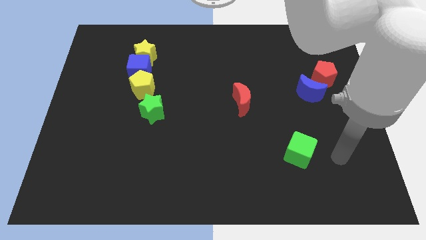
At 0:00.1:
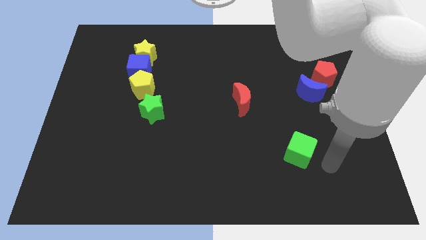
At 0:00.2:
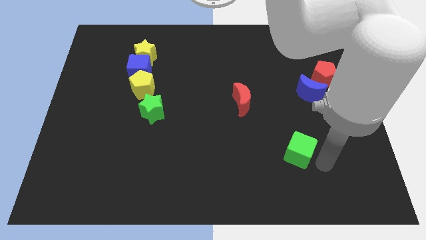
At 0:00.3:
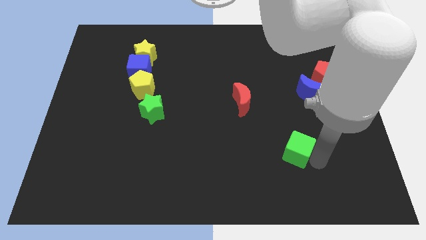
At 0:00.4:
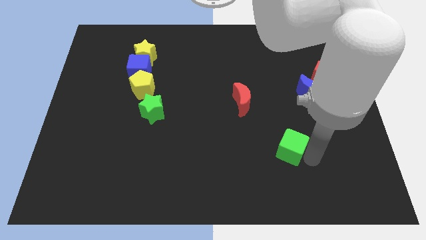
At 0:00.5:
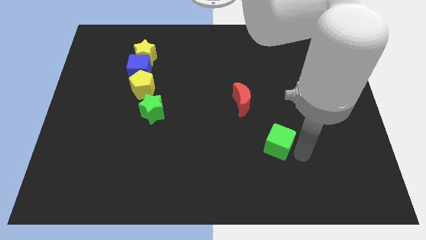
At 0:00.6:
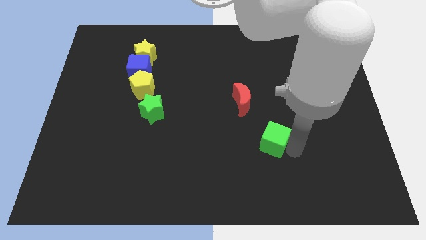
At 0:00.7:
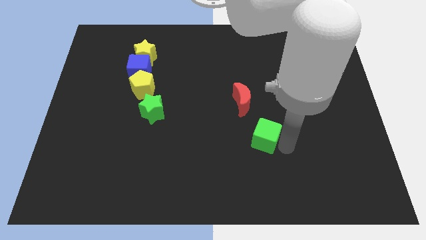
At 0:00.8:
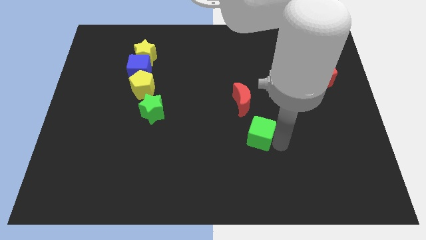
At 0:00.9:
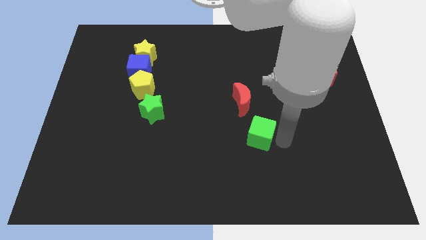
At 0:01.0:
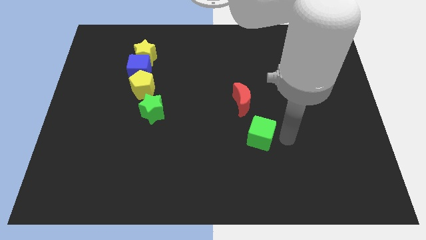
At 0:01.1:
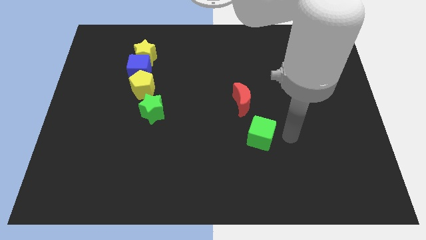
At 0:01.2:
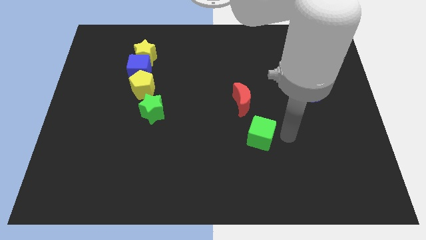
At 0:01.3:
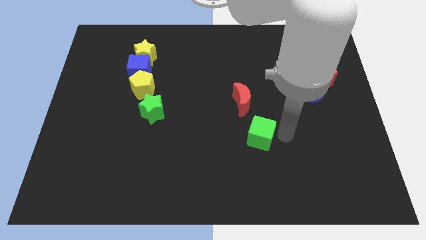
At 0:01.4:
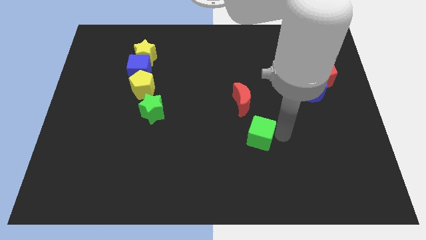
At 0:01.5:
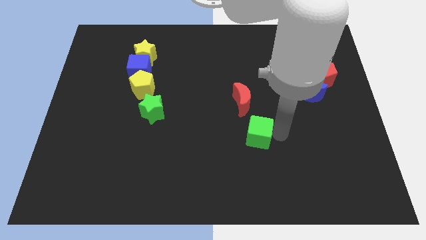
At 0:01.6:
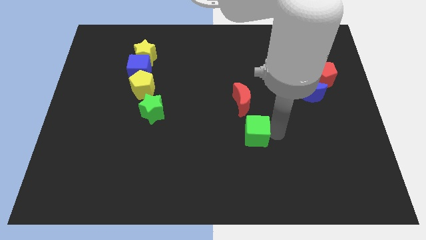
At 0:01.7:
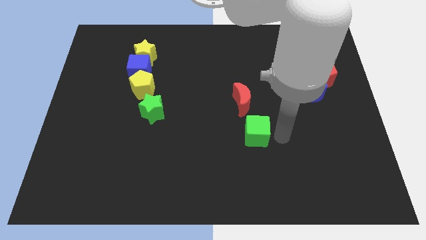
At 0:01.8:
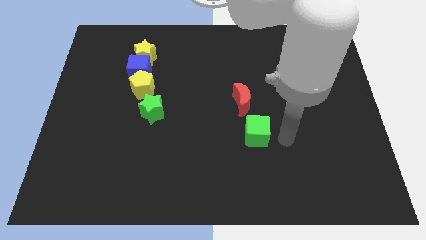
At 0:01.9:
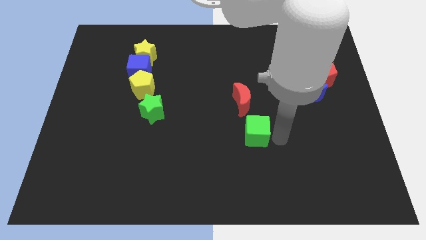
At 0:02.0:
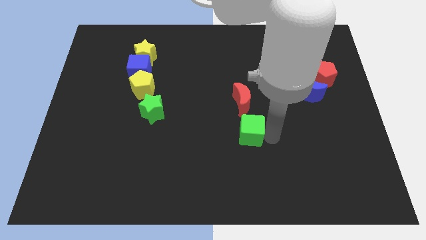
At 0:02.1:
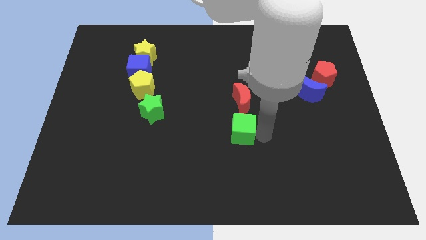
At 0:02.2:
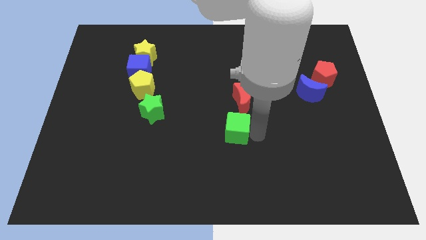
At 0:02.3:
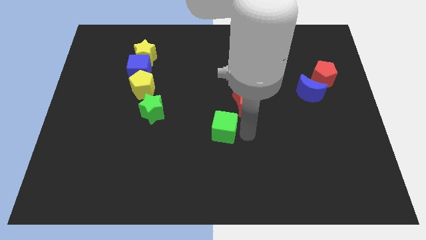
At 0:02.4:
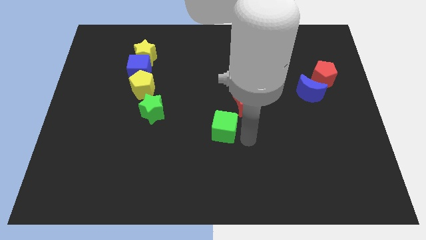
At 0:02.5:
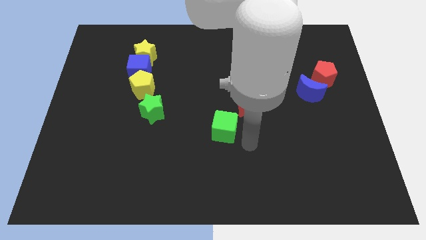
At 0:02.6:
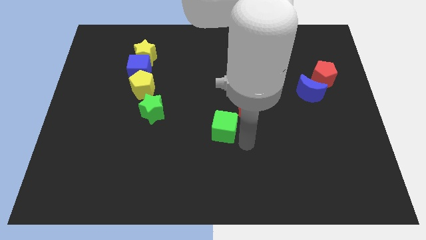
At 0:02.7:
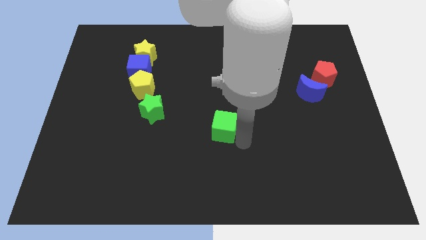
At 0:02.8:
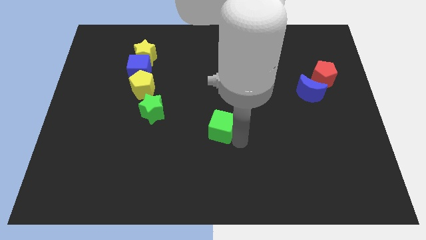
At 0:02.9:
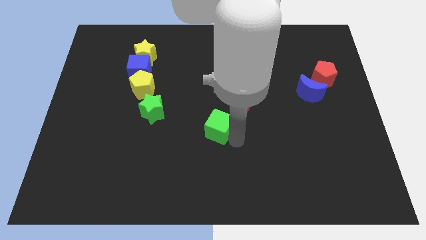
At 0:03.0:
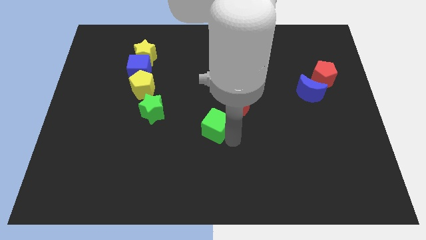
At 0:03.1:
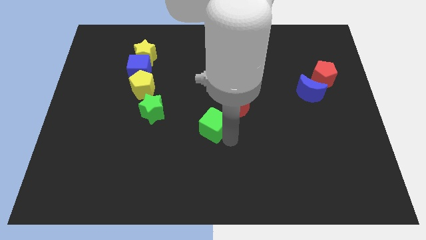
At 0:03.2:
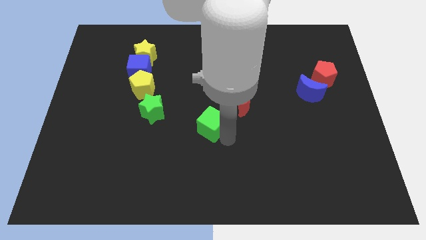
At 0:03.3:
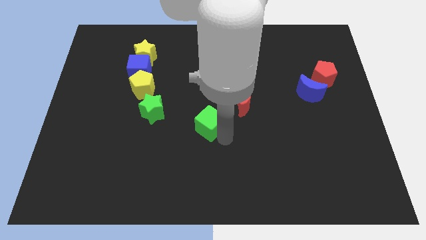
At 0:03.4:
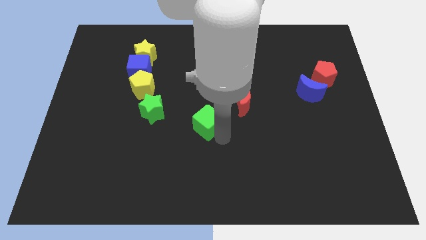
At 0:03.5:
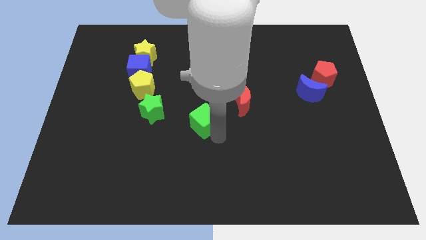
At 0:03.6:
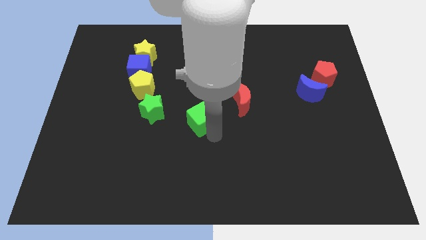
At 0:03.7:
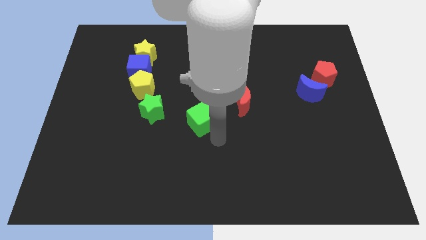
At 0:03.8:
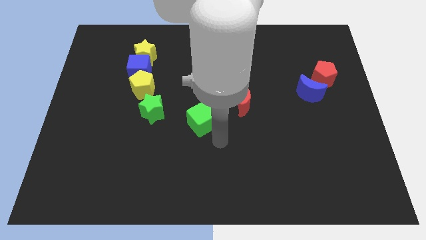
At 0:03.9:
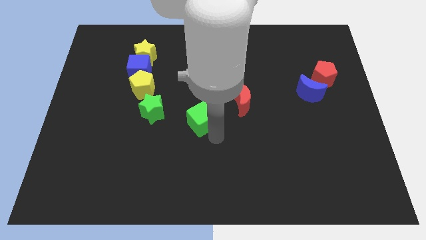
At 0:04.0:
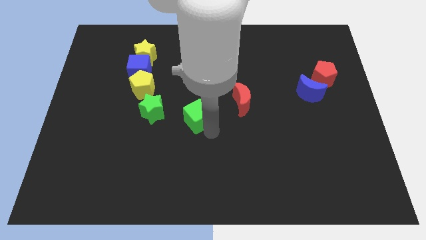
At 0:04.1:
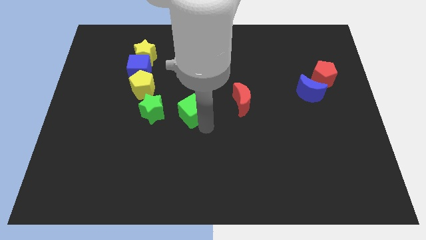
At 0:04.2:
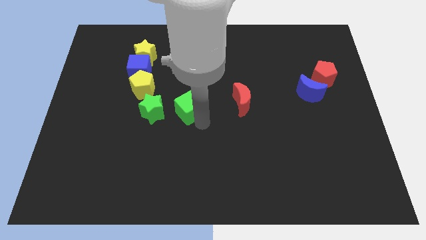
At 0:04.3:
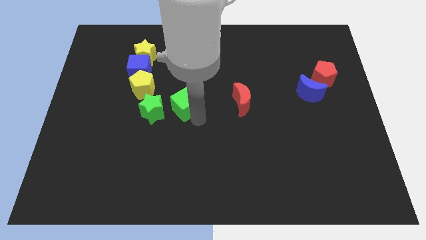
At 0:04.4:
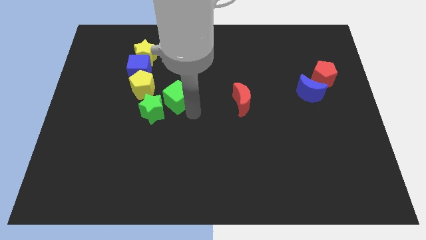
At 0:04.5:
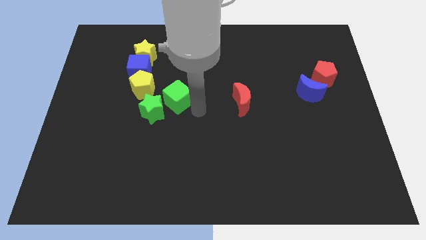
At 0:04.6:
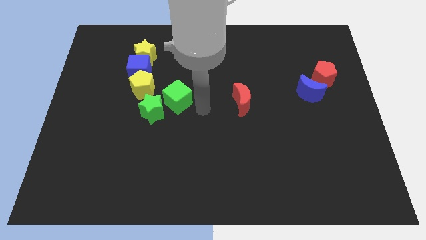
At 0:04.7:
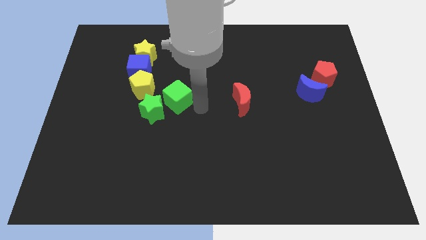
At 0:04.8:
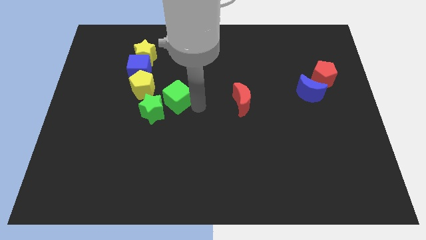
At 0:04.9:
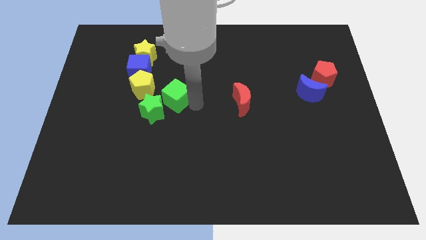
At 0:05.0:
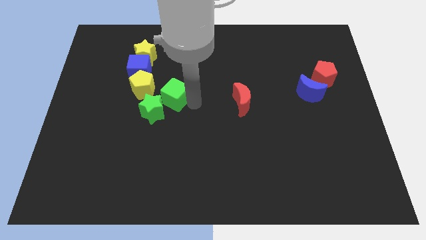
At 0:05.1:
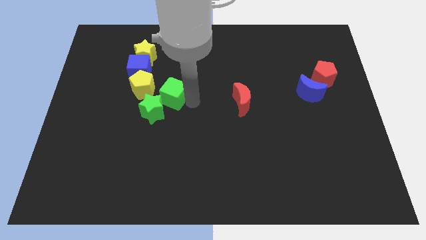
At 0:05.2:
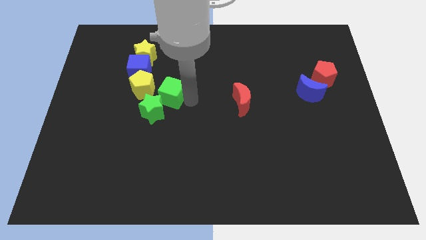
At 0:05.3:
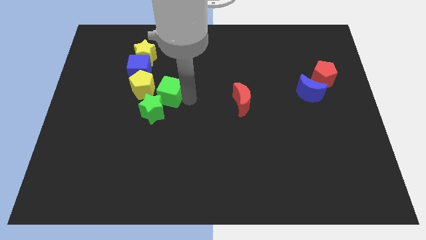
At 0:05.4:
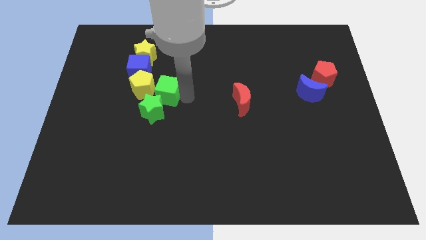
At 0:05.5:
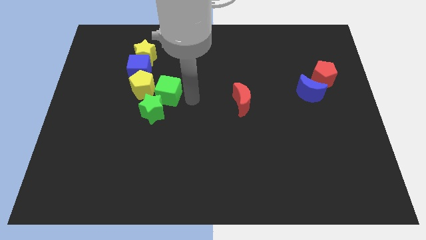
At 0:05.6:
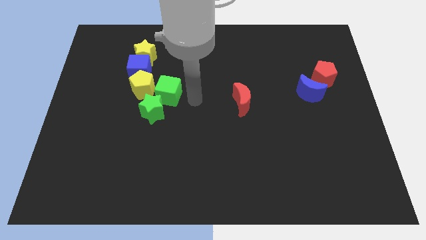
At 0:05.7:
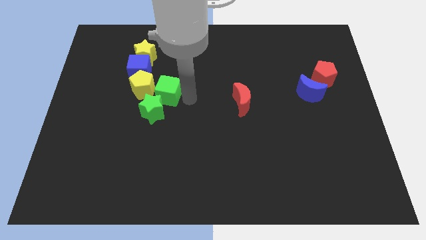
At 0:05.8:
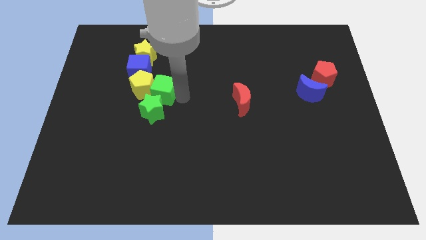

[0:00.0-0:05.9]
move the green cube close to the yellow pentagon

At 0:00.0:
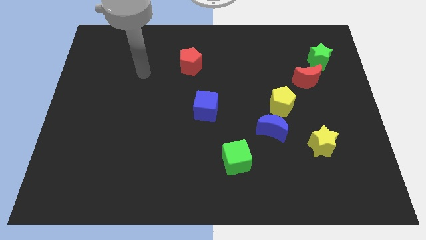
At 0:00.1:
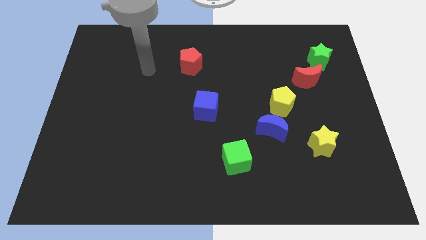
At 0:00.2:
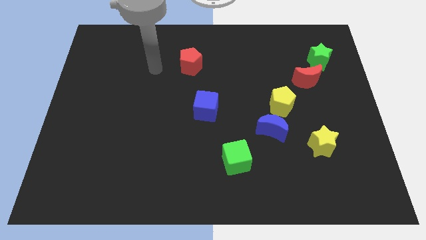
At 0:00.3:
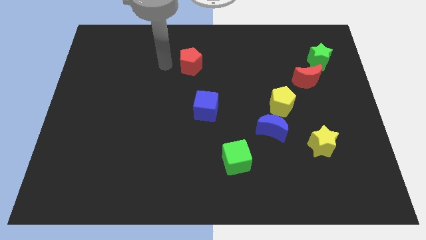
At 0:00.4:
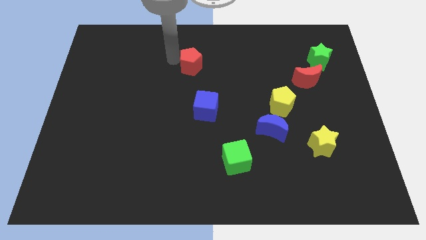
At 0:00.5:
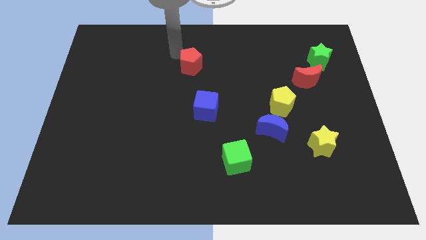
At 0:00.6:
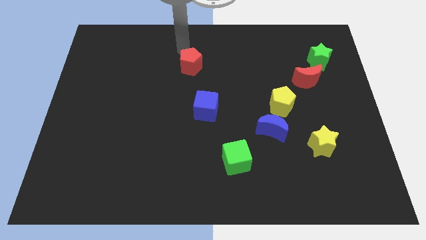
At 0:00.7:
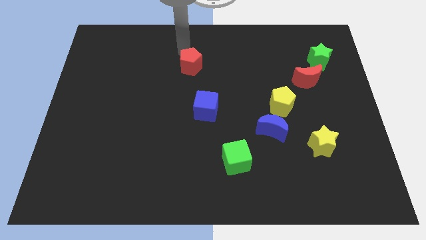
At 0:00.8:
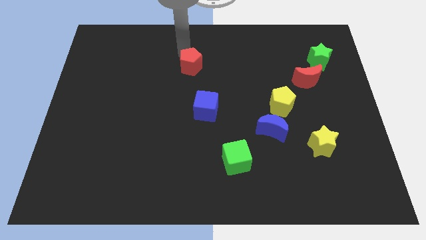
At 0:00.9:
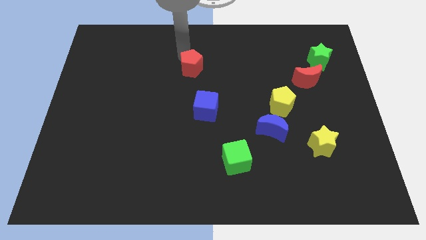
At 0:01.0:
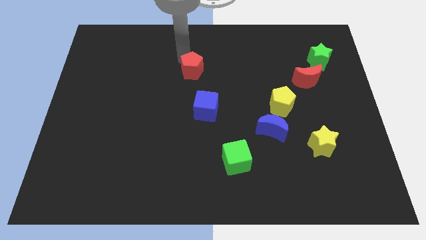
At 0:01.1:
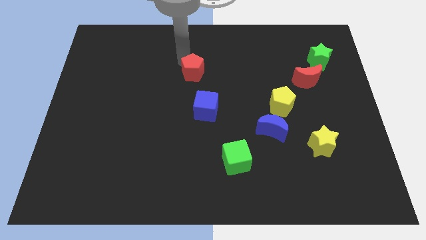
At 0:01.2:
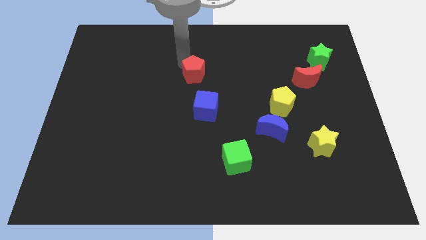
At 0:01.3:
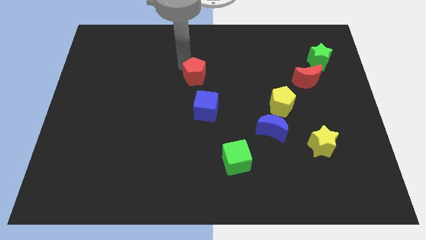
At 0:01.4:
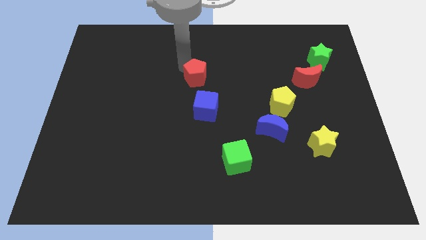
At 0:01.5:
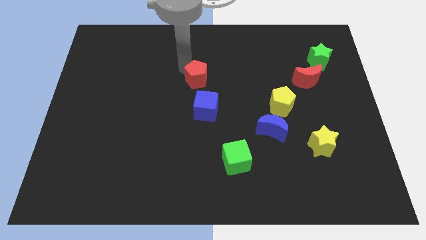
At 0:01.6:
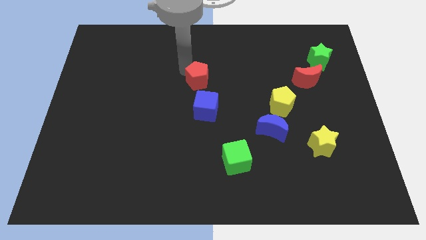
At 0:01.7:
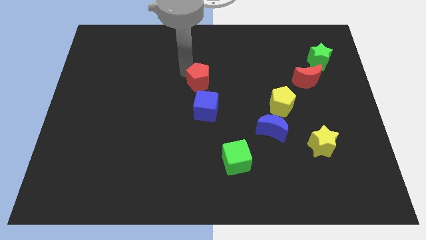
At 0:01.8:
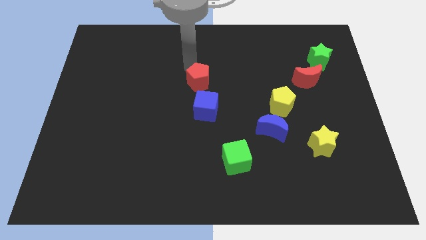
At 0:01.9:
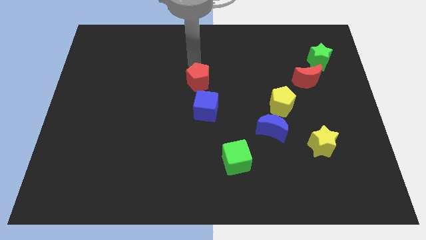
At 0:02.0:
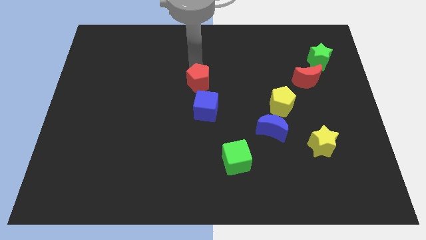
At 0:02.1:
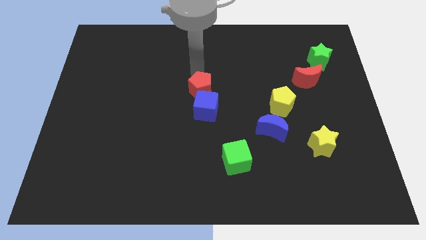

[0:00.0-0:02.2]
push the red pentagon towards the blue cube

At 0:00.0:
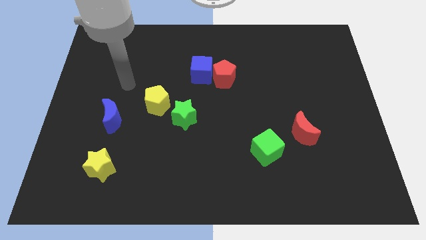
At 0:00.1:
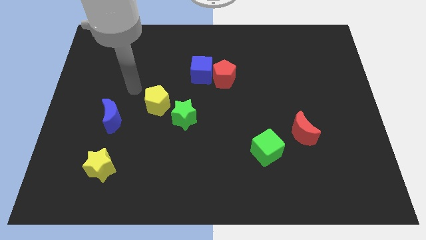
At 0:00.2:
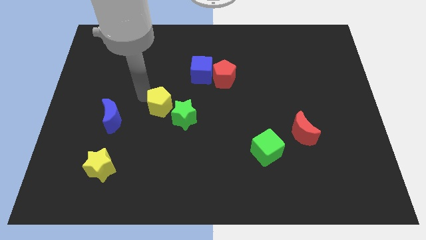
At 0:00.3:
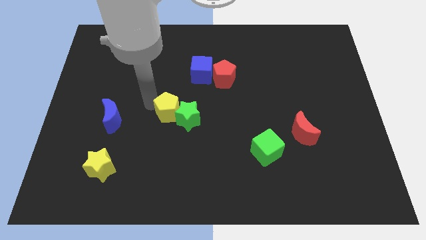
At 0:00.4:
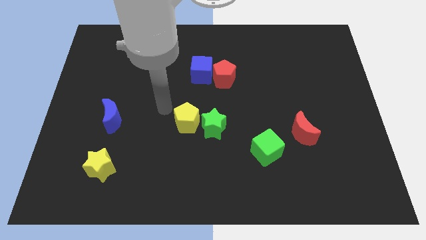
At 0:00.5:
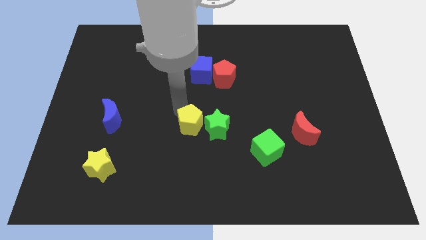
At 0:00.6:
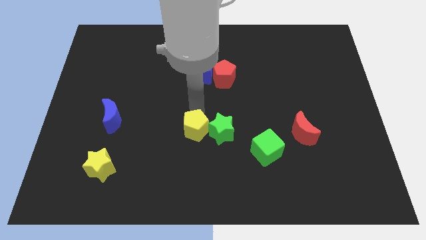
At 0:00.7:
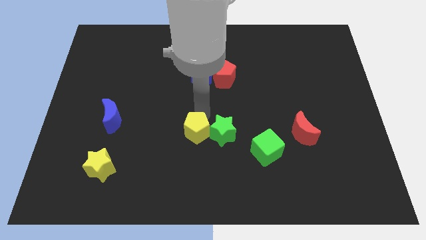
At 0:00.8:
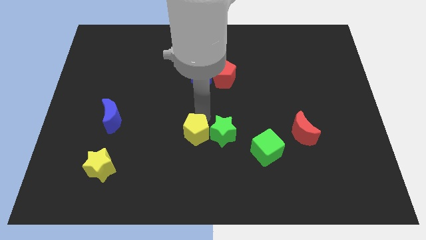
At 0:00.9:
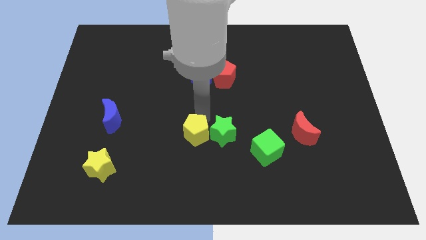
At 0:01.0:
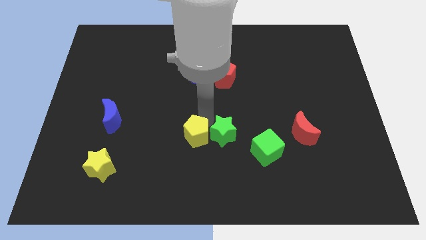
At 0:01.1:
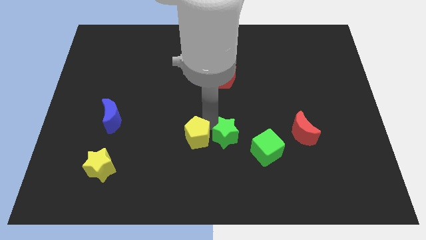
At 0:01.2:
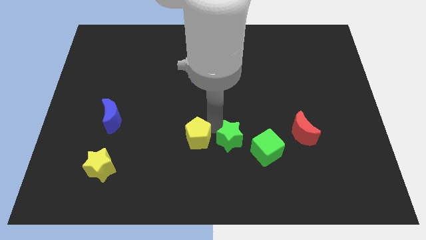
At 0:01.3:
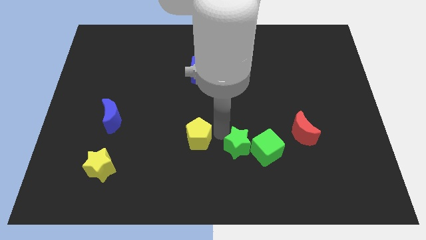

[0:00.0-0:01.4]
move the green star next to the green cube
